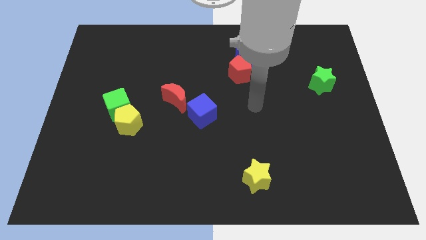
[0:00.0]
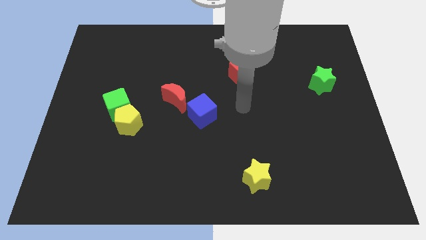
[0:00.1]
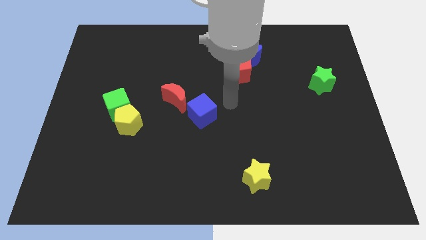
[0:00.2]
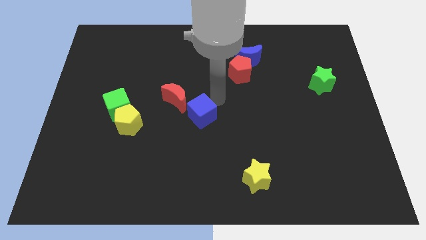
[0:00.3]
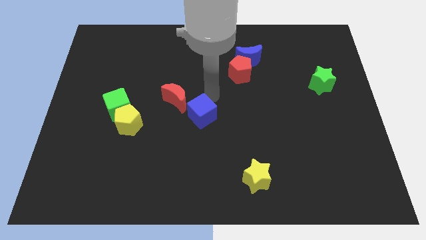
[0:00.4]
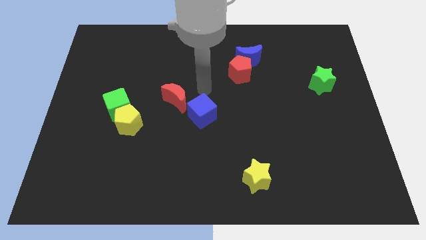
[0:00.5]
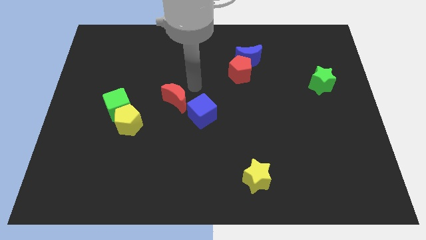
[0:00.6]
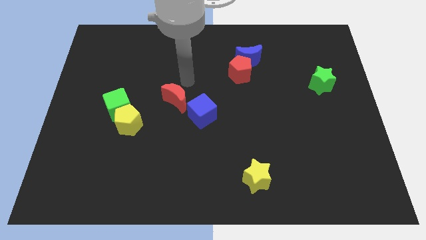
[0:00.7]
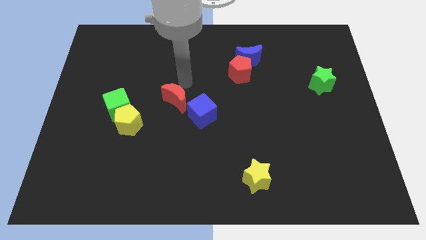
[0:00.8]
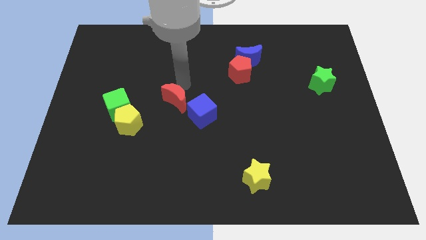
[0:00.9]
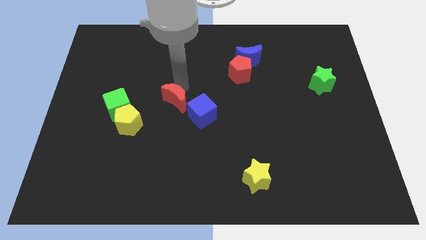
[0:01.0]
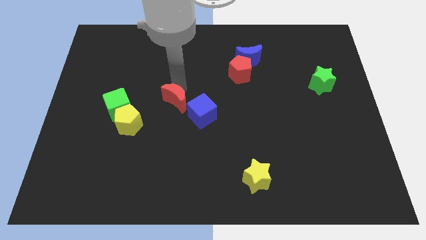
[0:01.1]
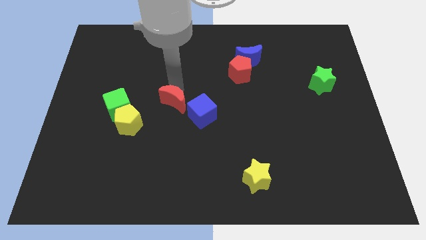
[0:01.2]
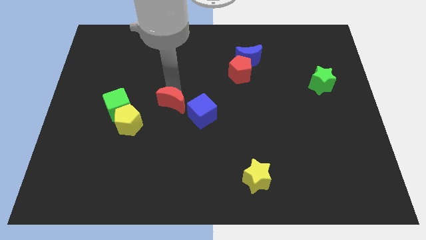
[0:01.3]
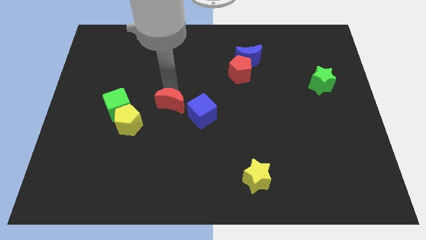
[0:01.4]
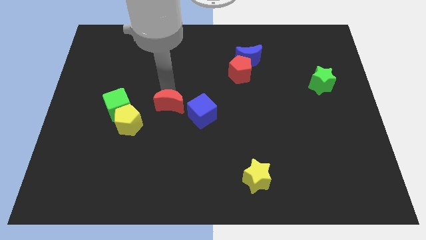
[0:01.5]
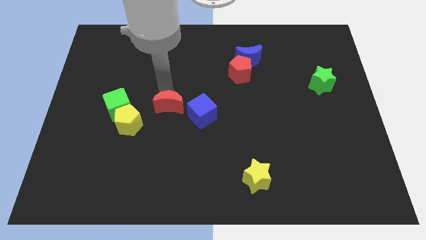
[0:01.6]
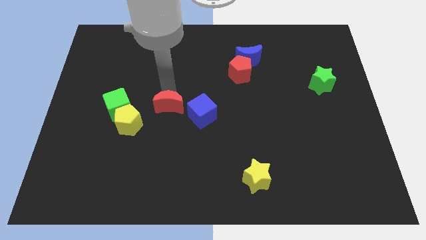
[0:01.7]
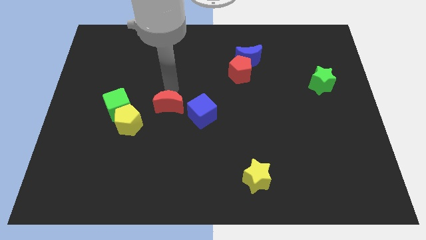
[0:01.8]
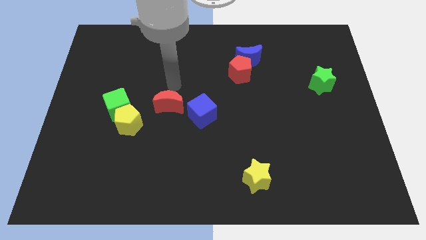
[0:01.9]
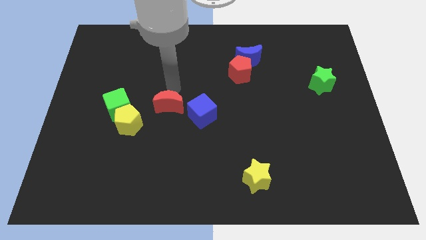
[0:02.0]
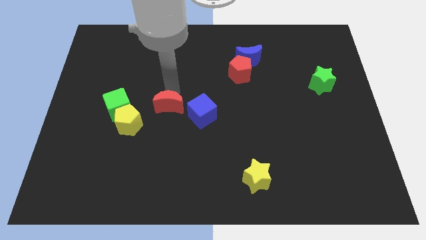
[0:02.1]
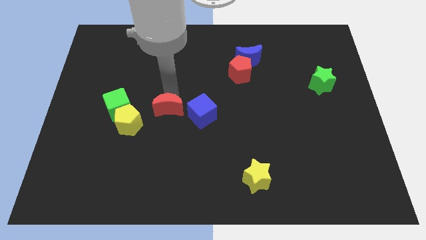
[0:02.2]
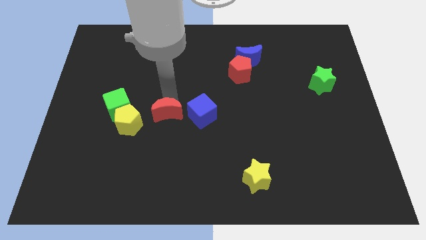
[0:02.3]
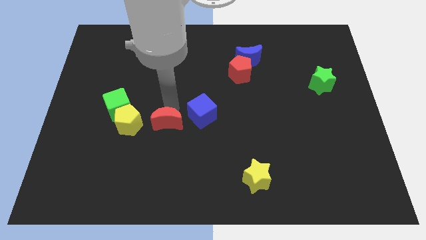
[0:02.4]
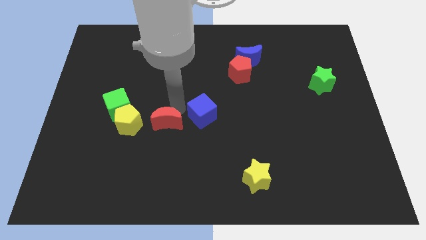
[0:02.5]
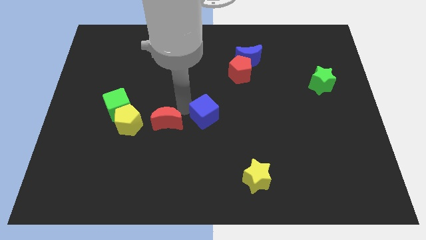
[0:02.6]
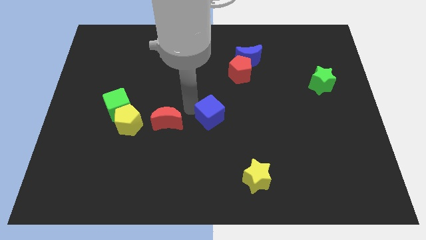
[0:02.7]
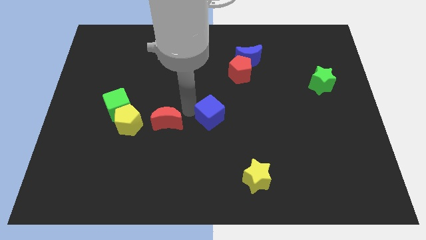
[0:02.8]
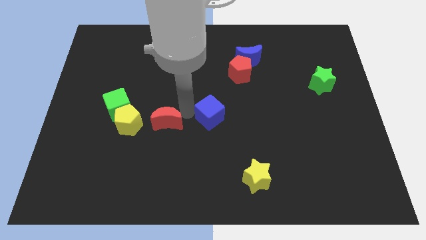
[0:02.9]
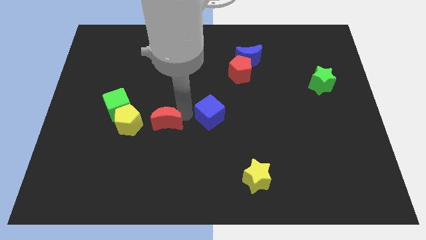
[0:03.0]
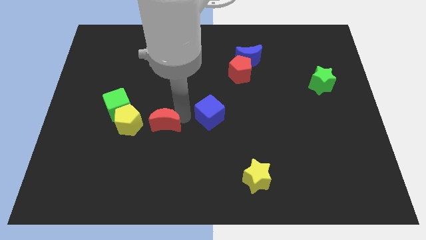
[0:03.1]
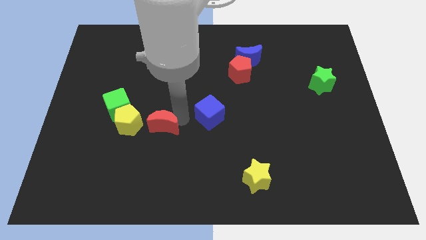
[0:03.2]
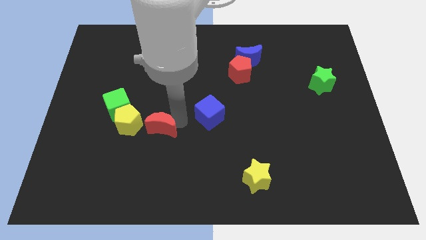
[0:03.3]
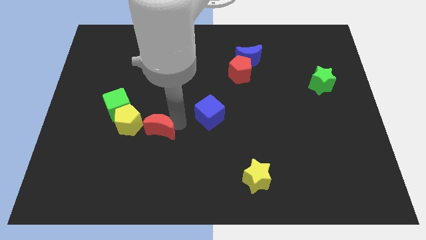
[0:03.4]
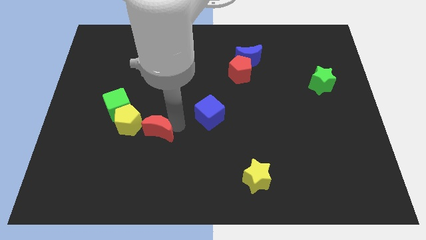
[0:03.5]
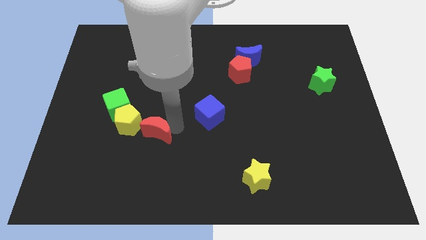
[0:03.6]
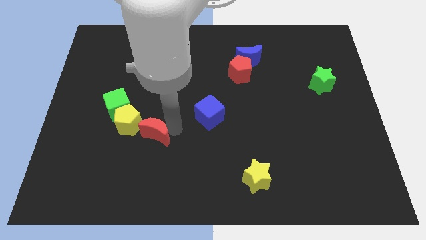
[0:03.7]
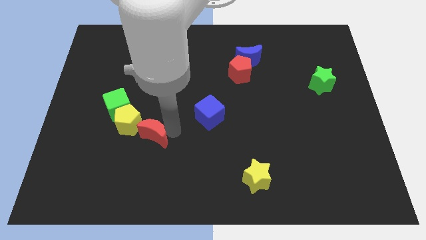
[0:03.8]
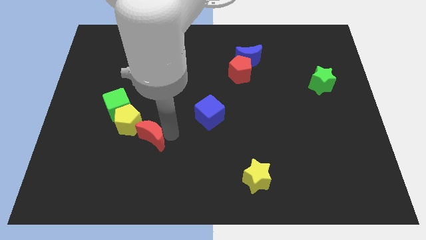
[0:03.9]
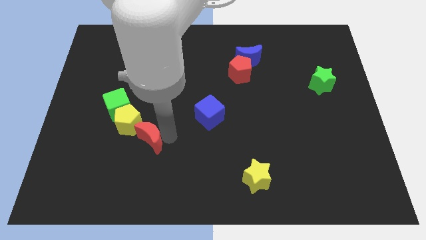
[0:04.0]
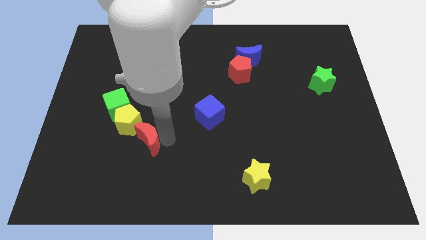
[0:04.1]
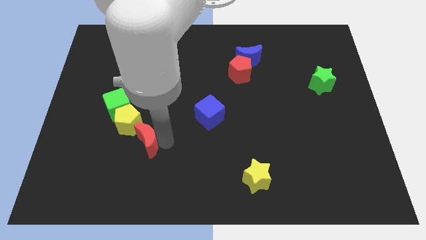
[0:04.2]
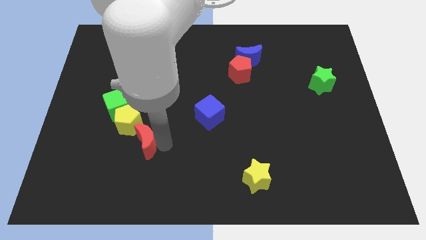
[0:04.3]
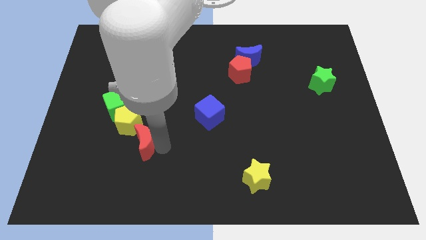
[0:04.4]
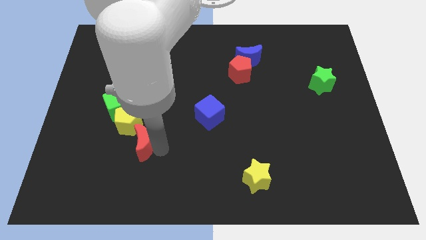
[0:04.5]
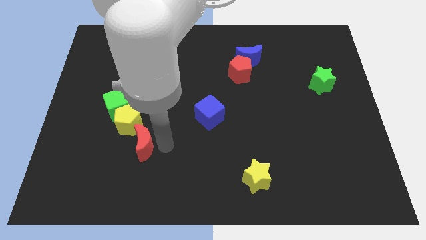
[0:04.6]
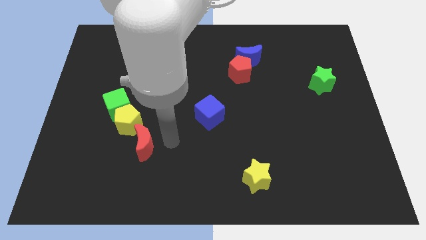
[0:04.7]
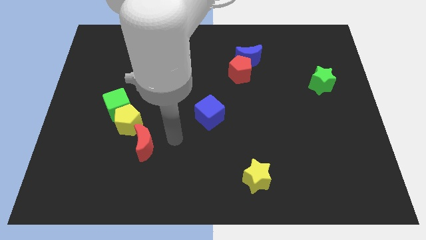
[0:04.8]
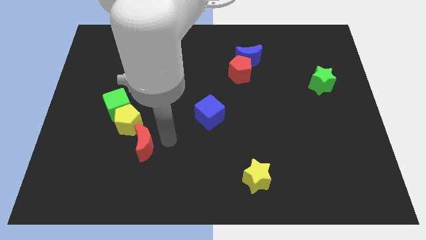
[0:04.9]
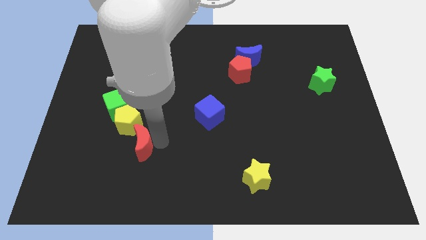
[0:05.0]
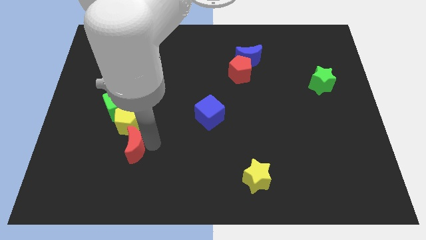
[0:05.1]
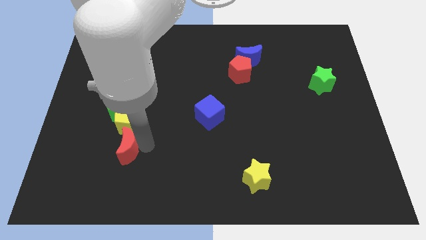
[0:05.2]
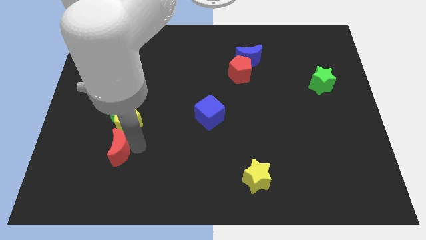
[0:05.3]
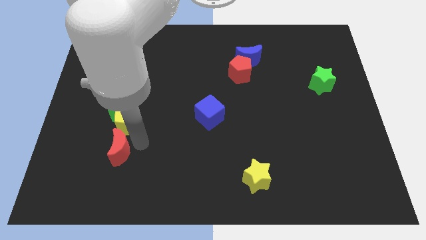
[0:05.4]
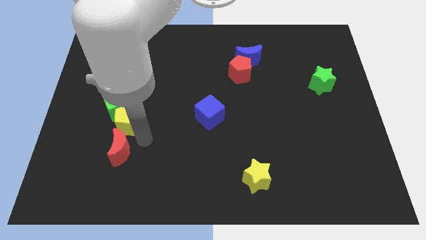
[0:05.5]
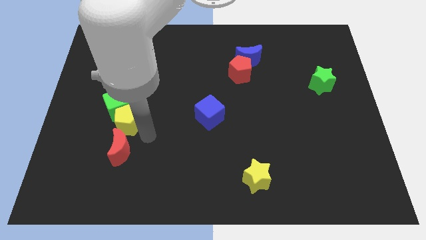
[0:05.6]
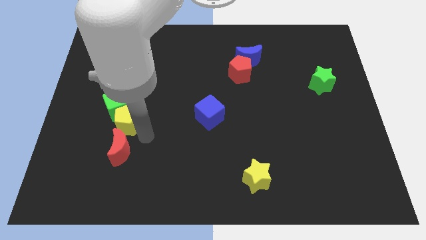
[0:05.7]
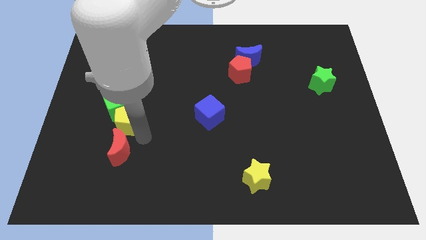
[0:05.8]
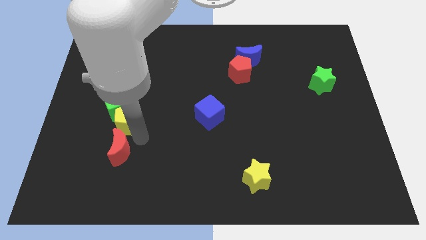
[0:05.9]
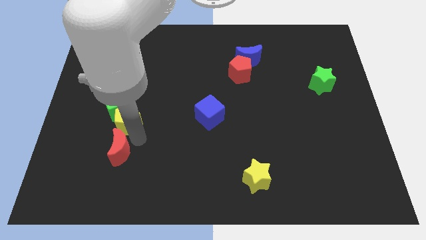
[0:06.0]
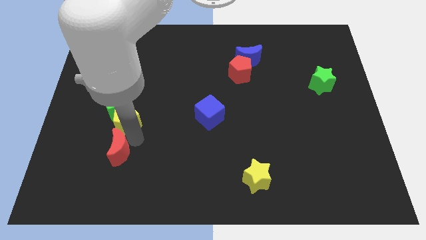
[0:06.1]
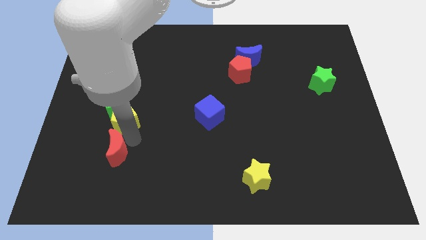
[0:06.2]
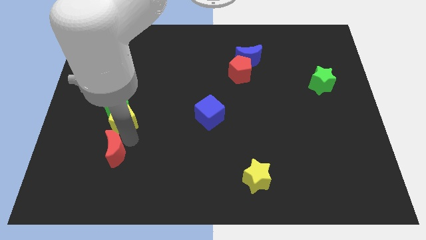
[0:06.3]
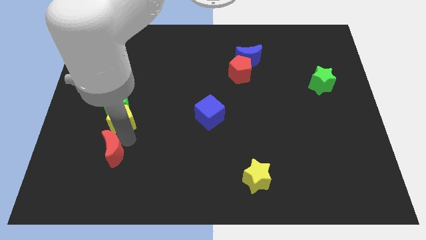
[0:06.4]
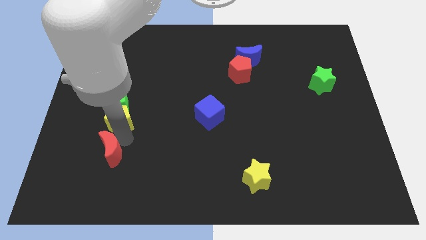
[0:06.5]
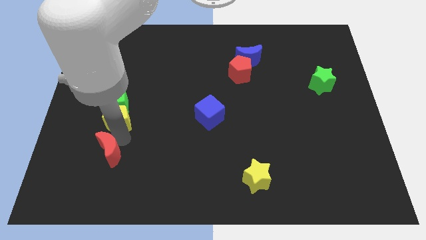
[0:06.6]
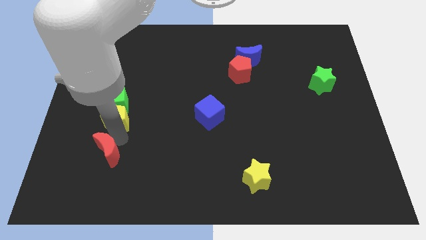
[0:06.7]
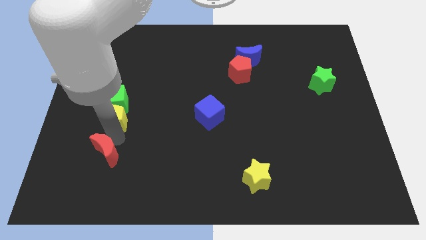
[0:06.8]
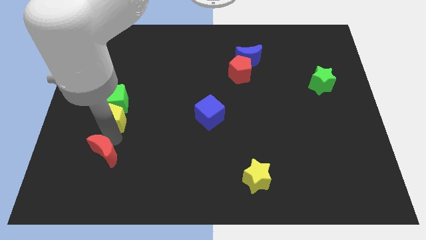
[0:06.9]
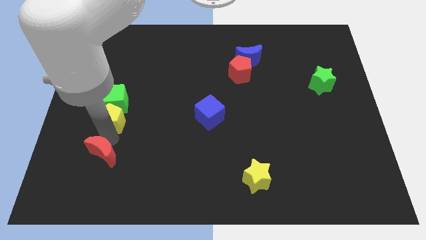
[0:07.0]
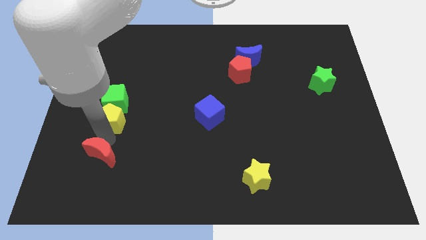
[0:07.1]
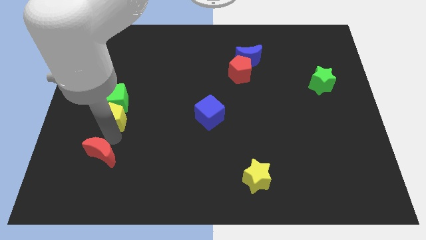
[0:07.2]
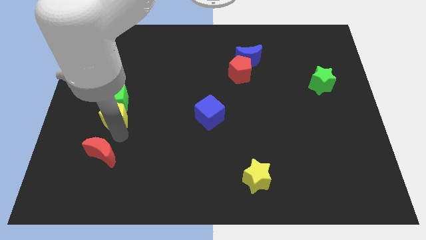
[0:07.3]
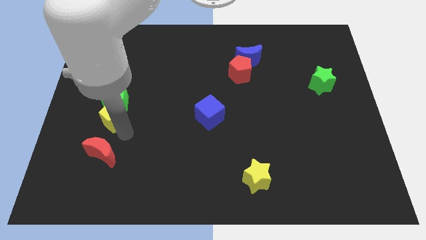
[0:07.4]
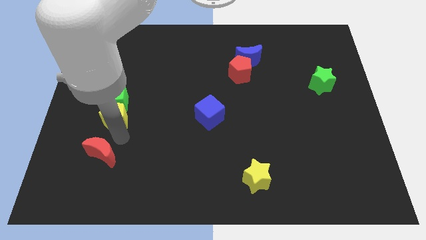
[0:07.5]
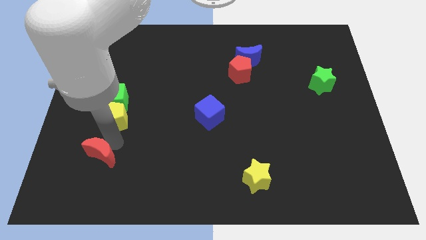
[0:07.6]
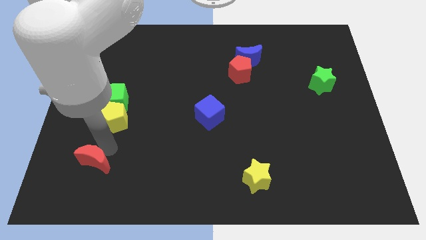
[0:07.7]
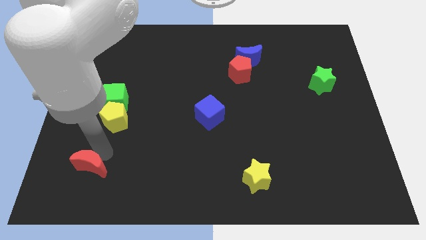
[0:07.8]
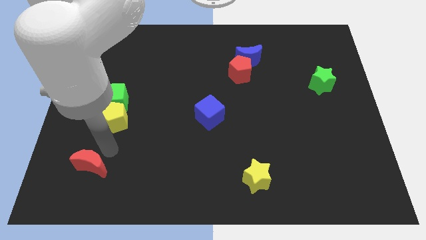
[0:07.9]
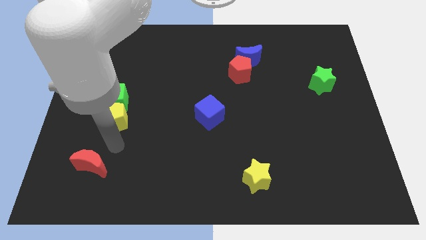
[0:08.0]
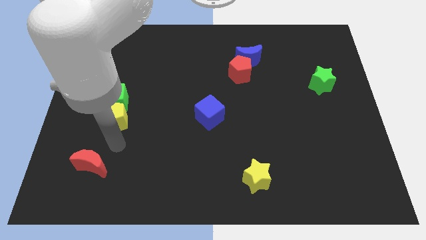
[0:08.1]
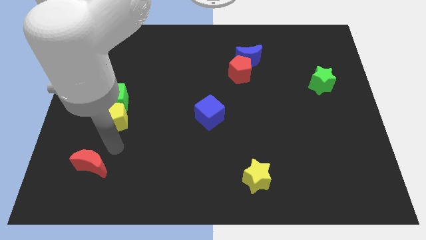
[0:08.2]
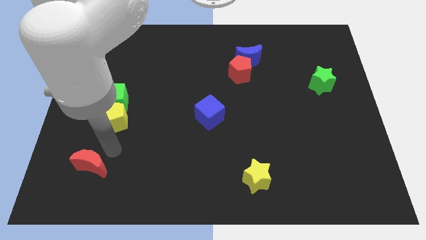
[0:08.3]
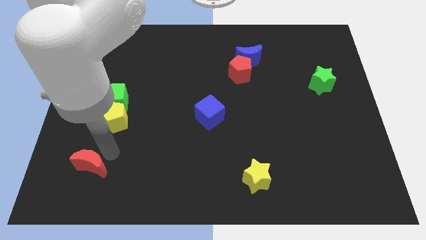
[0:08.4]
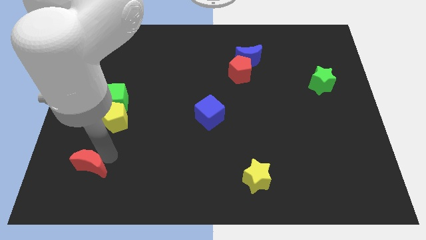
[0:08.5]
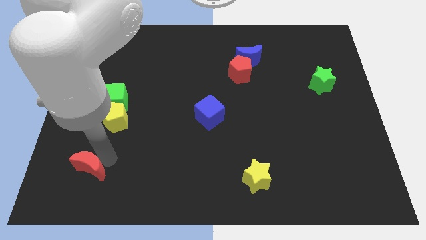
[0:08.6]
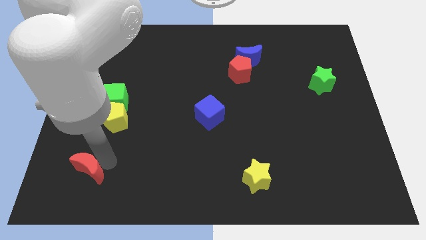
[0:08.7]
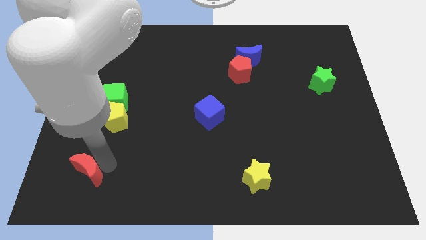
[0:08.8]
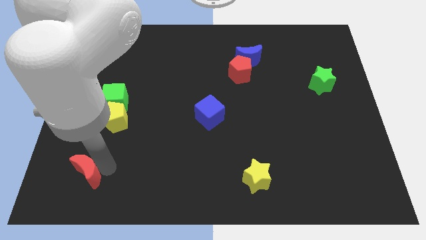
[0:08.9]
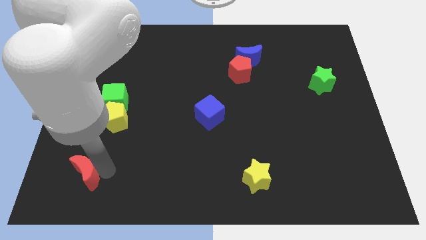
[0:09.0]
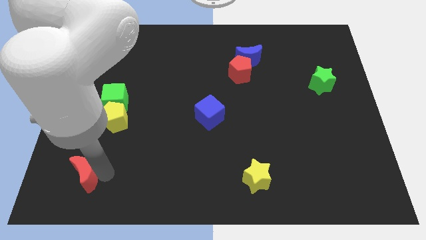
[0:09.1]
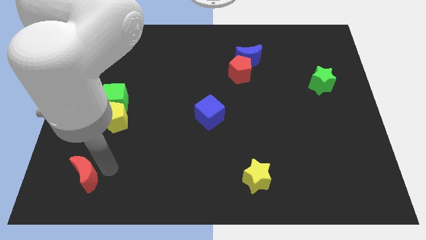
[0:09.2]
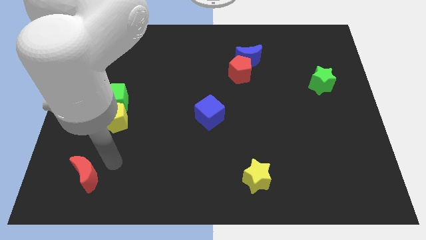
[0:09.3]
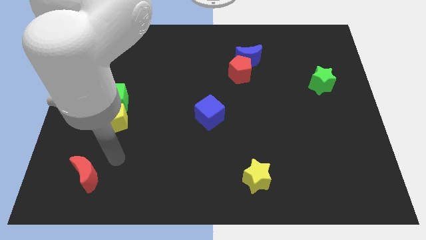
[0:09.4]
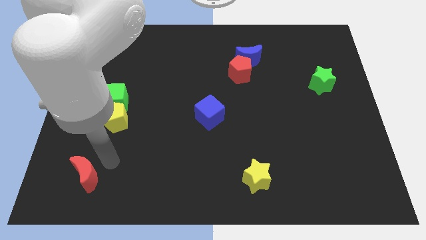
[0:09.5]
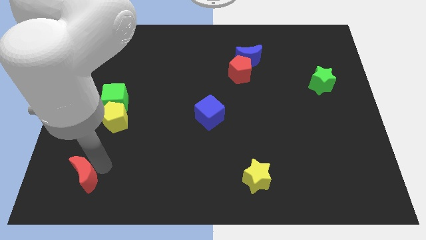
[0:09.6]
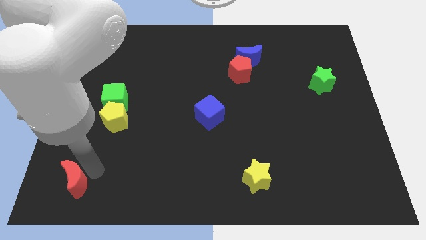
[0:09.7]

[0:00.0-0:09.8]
slide the red moon to the lower left corner
